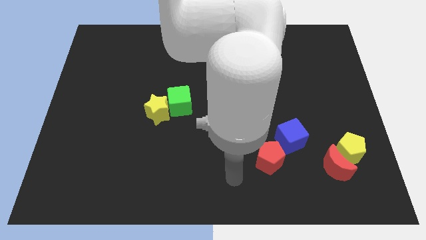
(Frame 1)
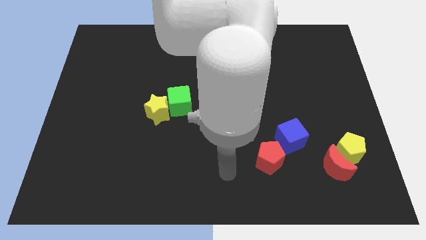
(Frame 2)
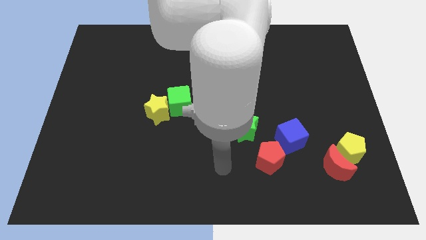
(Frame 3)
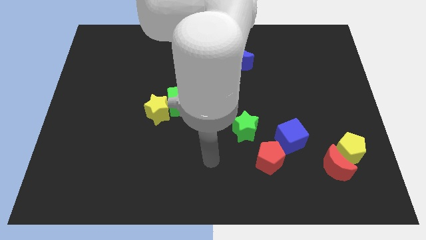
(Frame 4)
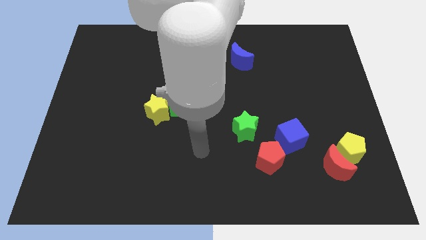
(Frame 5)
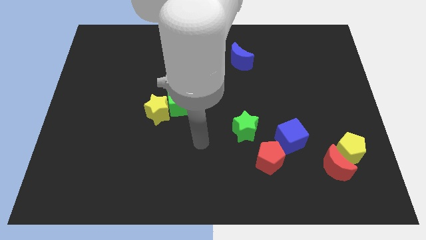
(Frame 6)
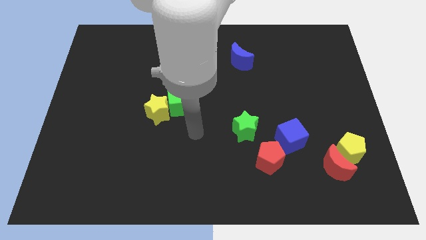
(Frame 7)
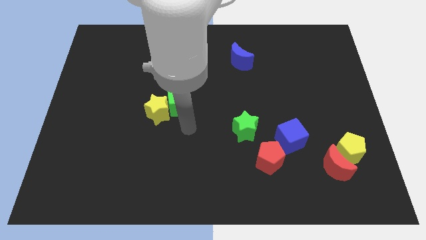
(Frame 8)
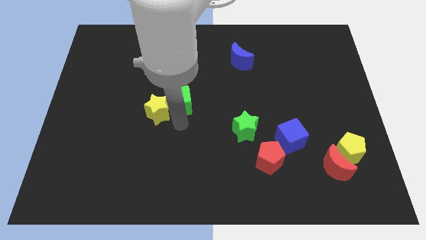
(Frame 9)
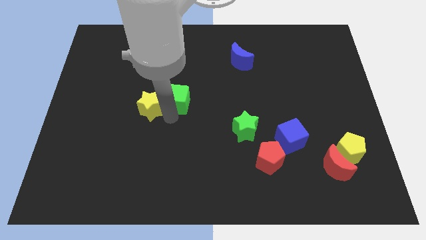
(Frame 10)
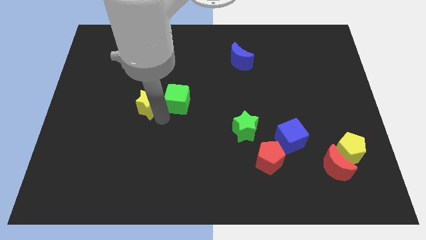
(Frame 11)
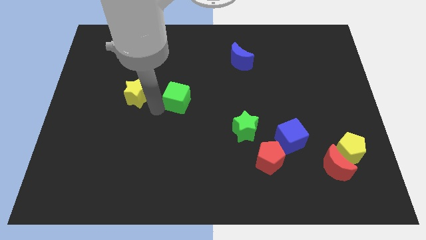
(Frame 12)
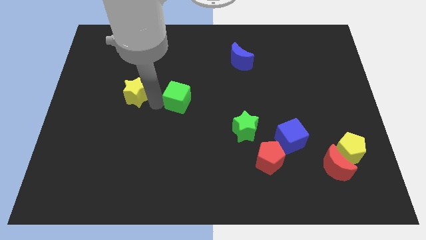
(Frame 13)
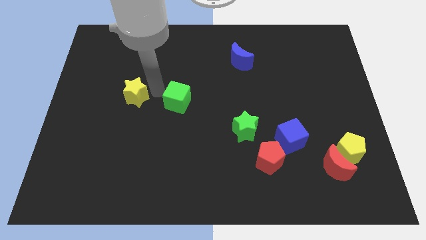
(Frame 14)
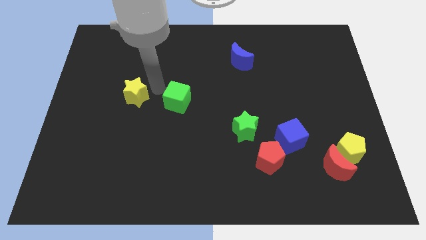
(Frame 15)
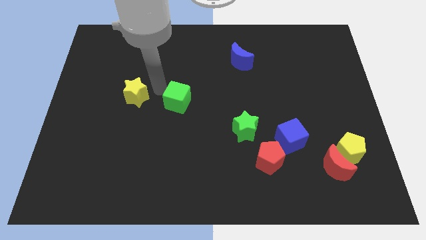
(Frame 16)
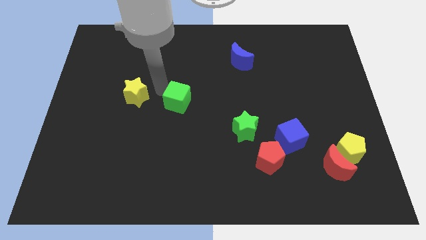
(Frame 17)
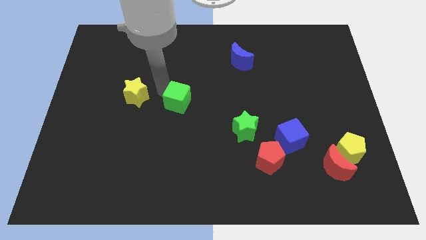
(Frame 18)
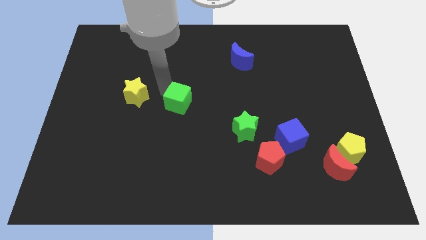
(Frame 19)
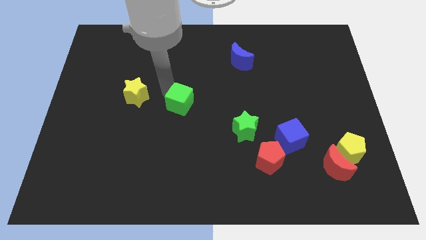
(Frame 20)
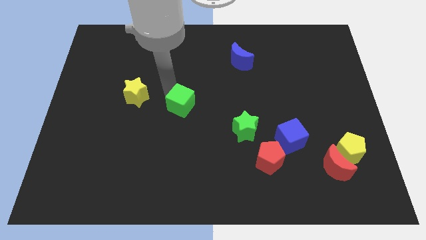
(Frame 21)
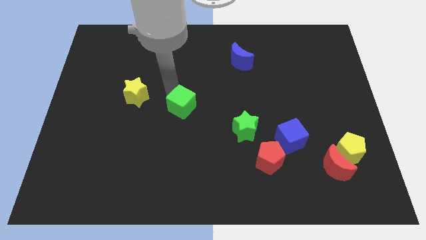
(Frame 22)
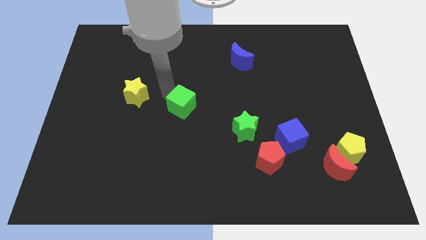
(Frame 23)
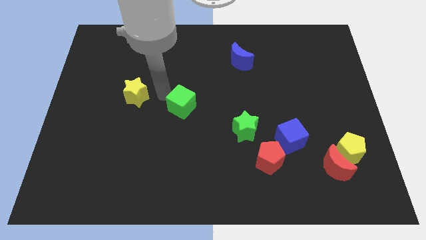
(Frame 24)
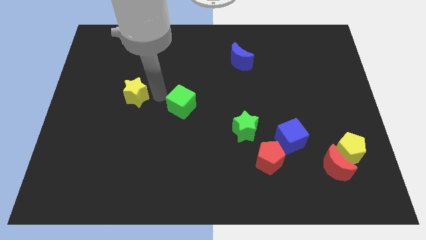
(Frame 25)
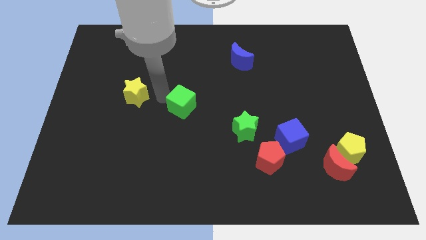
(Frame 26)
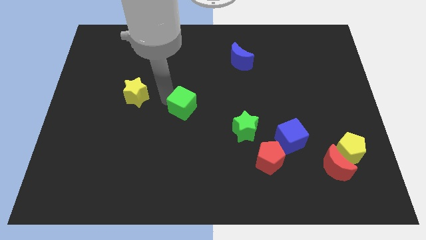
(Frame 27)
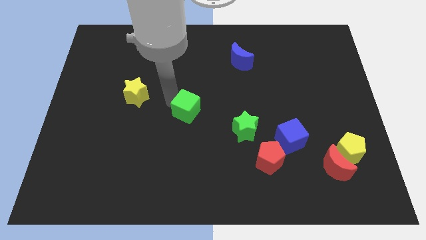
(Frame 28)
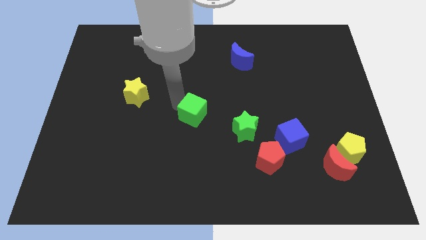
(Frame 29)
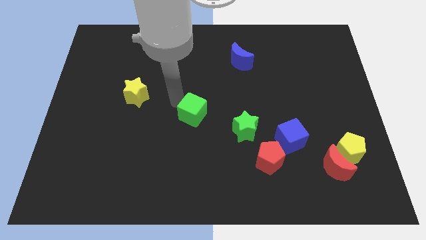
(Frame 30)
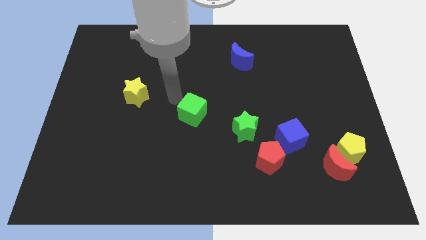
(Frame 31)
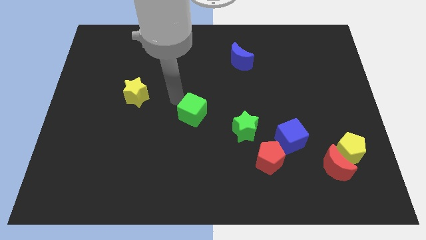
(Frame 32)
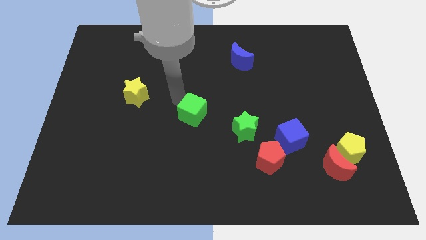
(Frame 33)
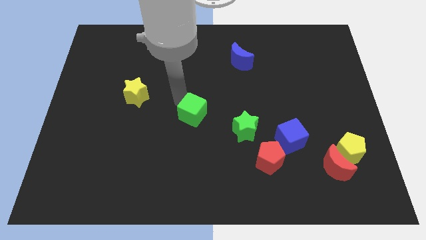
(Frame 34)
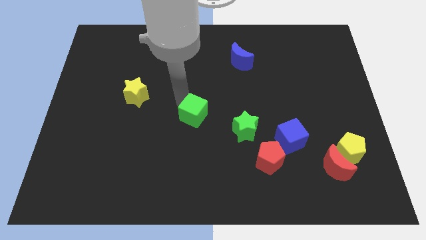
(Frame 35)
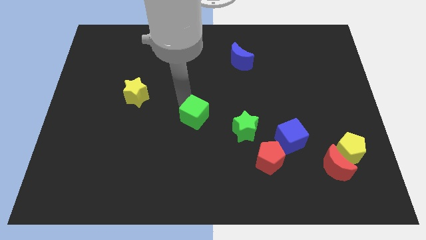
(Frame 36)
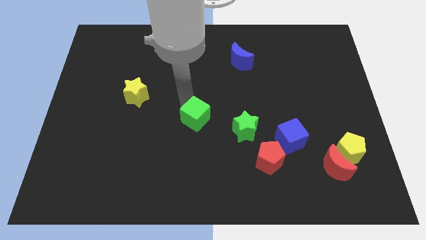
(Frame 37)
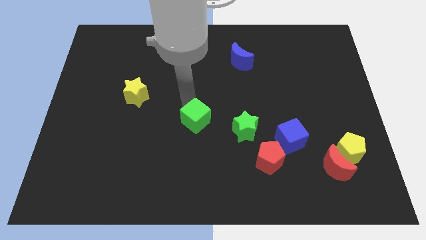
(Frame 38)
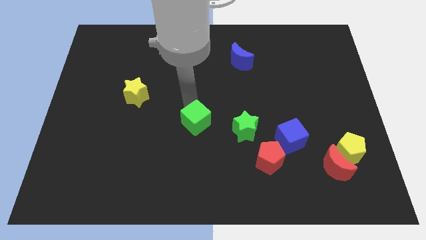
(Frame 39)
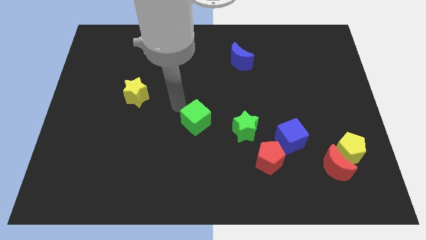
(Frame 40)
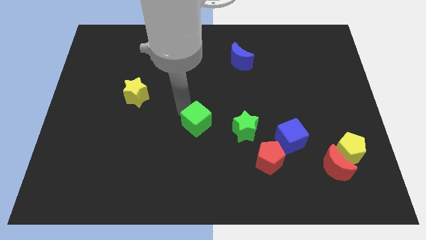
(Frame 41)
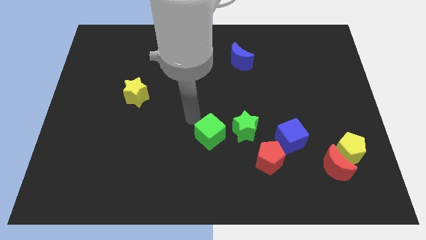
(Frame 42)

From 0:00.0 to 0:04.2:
slightly slide the green cube down and to the right diagonally

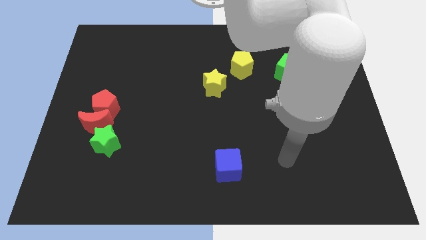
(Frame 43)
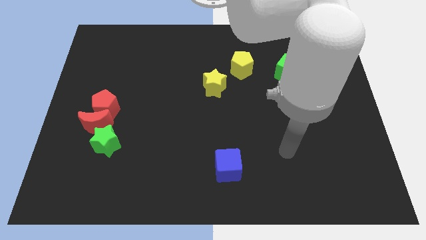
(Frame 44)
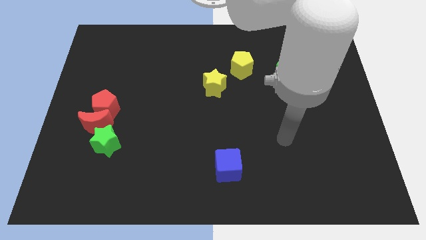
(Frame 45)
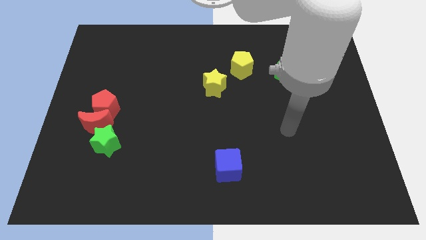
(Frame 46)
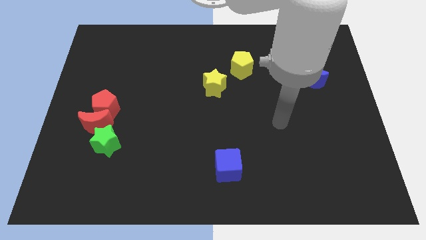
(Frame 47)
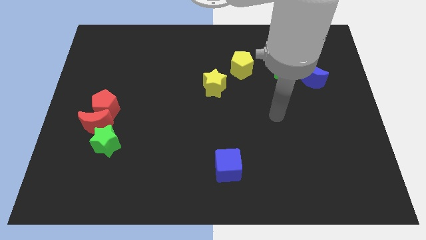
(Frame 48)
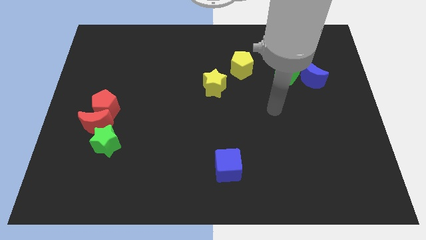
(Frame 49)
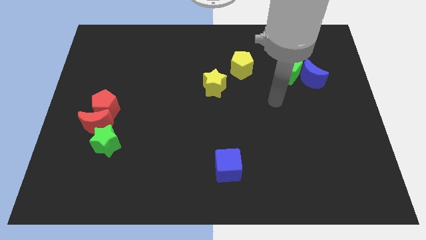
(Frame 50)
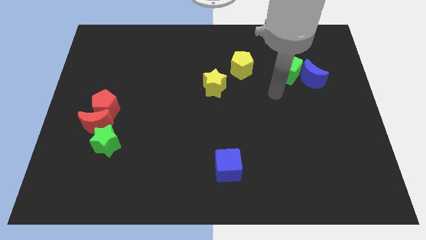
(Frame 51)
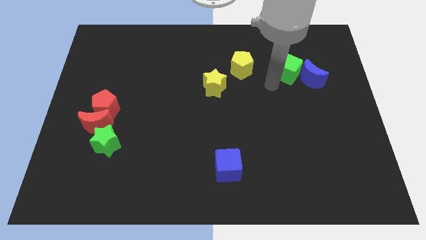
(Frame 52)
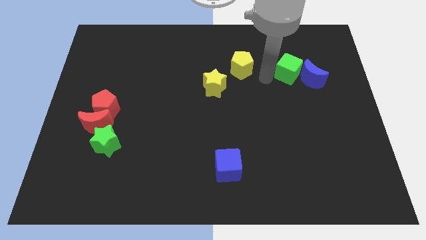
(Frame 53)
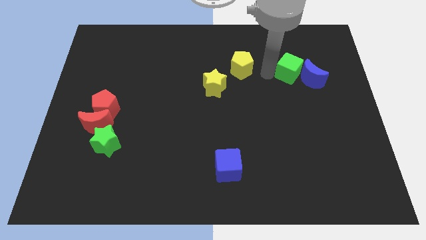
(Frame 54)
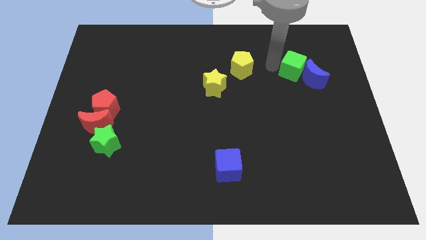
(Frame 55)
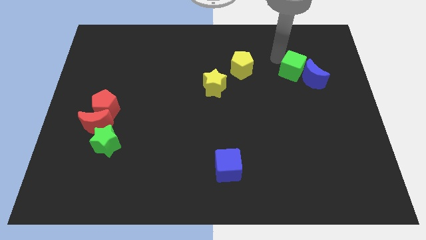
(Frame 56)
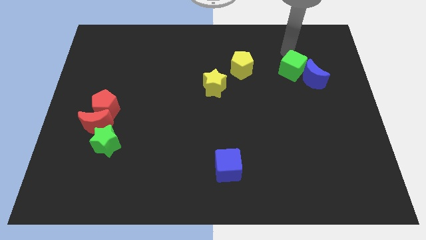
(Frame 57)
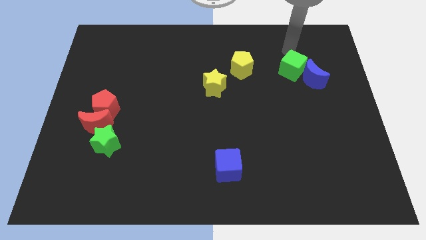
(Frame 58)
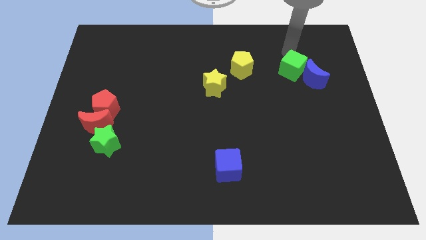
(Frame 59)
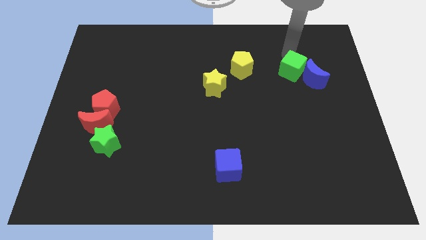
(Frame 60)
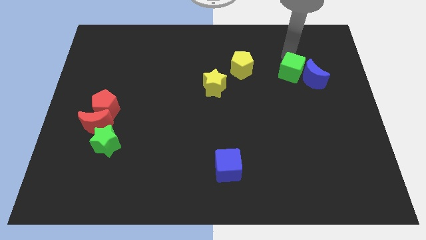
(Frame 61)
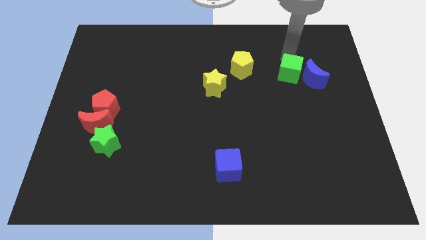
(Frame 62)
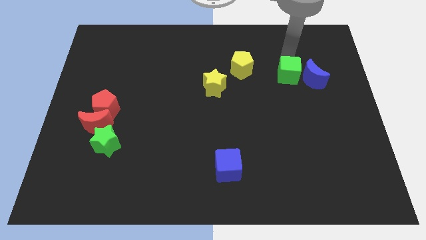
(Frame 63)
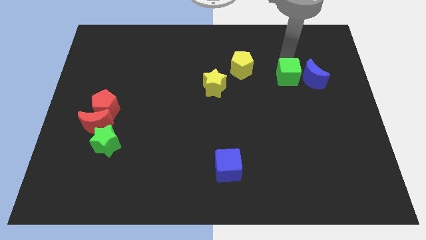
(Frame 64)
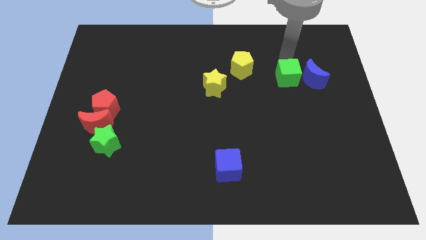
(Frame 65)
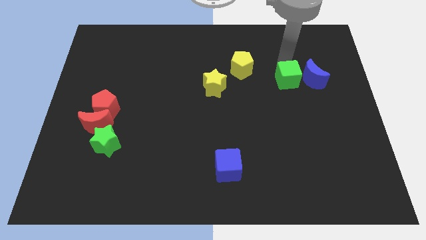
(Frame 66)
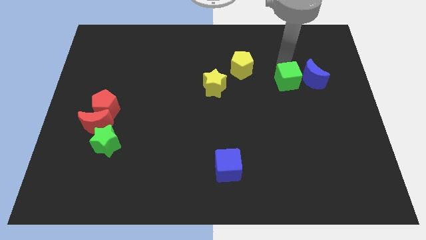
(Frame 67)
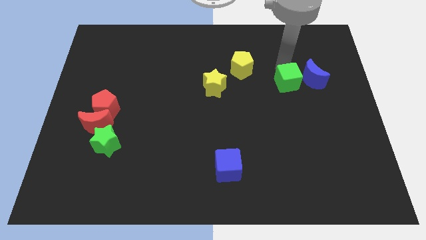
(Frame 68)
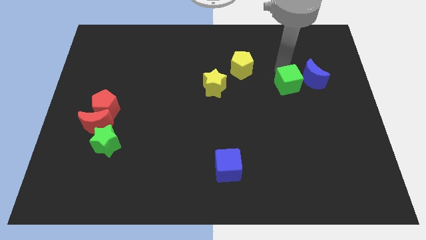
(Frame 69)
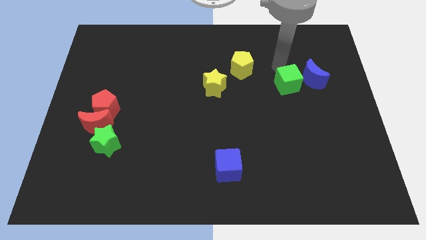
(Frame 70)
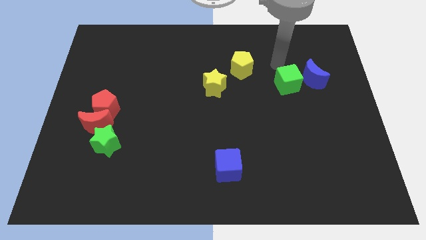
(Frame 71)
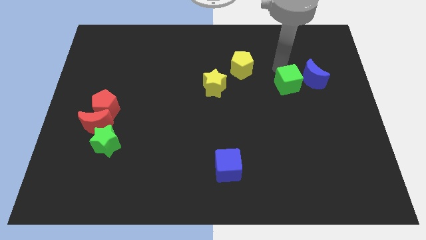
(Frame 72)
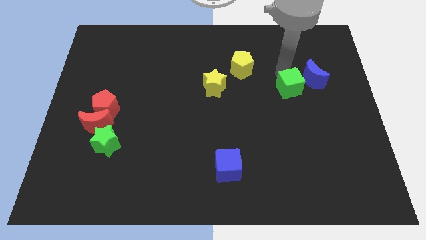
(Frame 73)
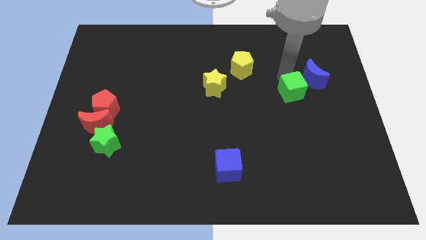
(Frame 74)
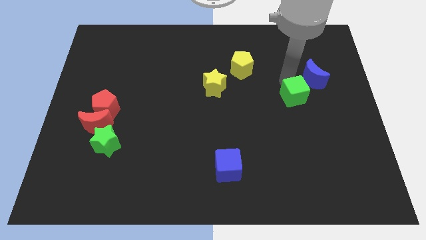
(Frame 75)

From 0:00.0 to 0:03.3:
slide the green cube downwards somewhat

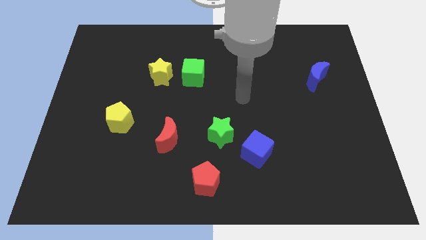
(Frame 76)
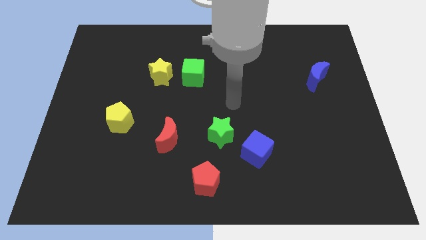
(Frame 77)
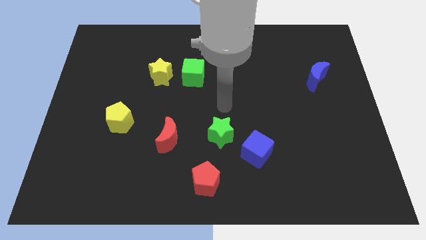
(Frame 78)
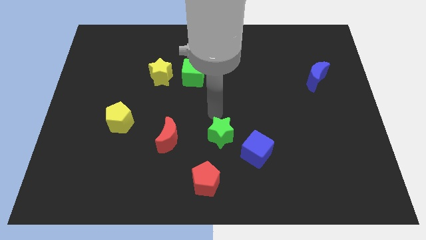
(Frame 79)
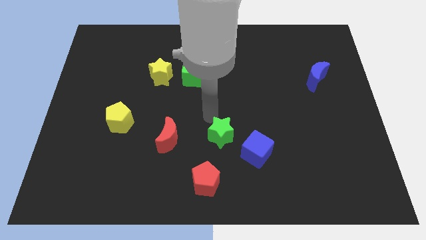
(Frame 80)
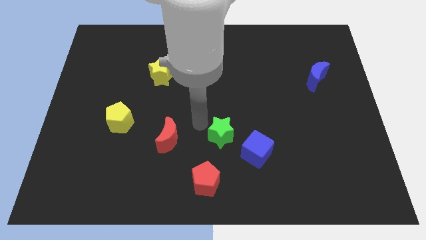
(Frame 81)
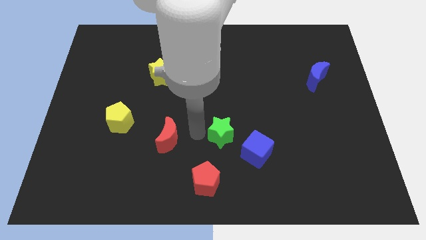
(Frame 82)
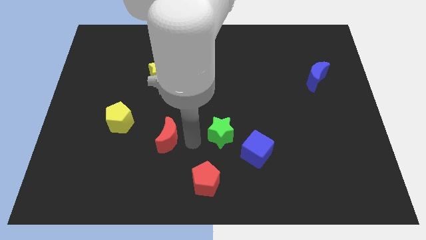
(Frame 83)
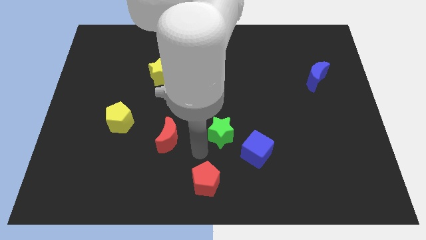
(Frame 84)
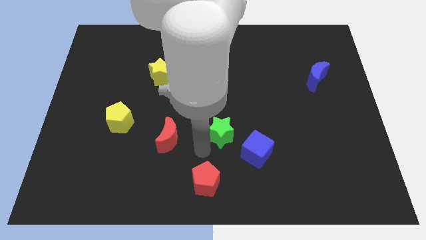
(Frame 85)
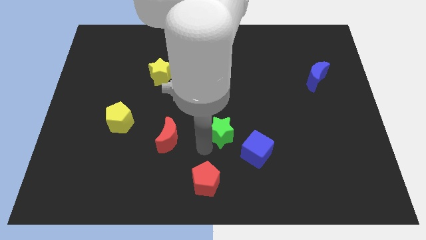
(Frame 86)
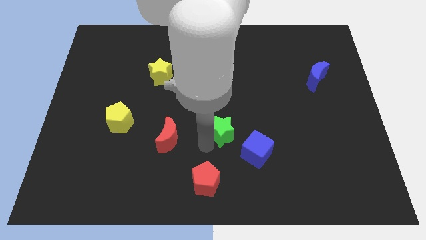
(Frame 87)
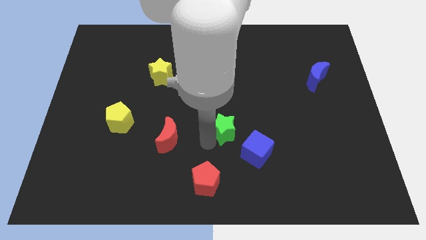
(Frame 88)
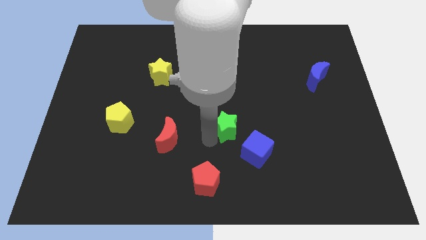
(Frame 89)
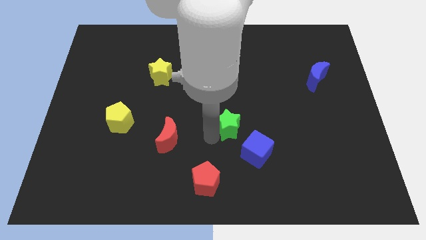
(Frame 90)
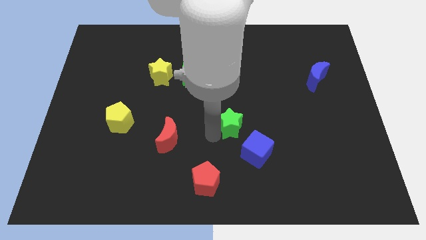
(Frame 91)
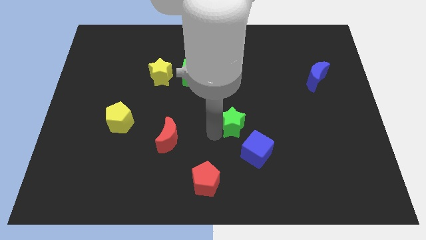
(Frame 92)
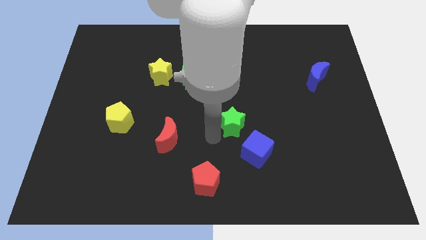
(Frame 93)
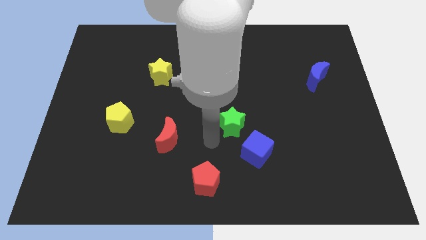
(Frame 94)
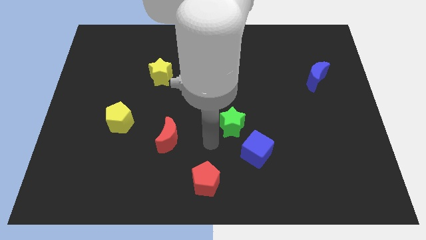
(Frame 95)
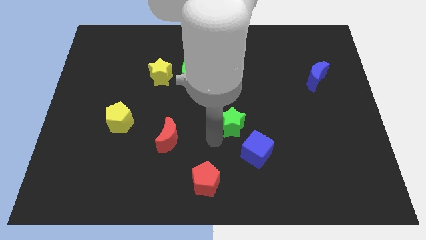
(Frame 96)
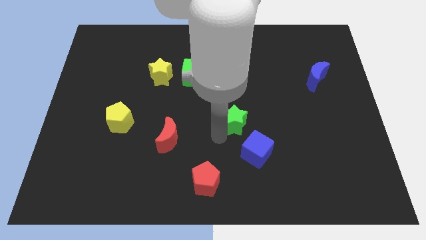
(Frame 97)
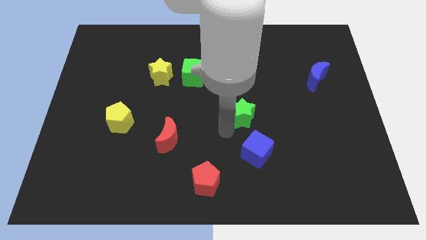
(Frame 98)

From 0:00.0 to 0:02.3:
push the green star somewhat upwards and right diagonally
